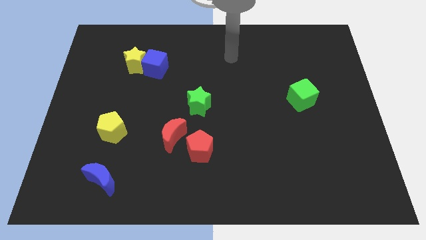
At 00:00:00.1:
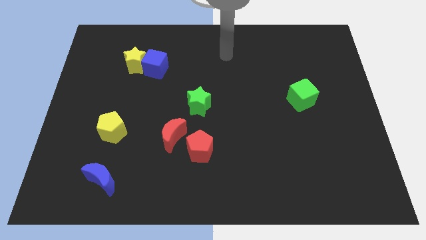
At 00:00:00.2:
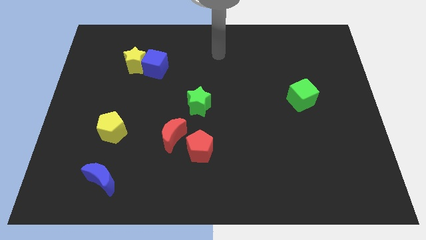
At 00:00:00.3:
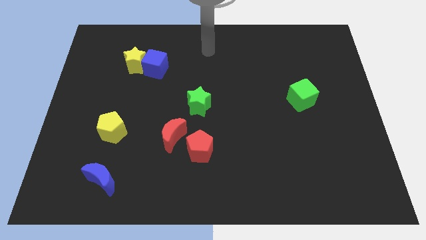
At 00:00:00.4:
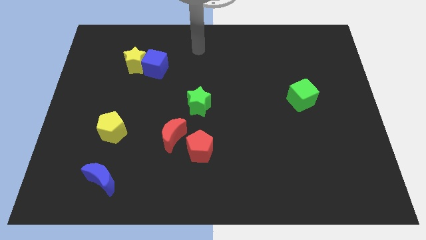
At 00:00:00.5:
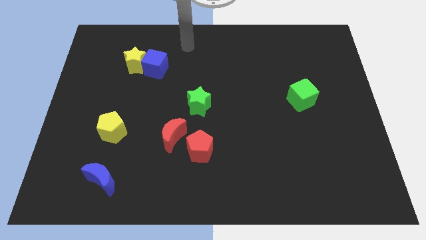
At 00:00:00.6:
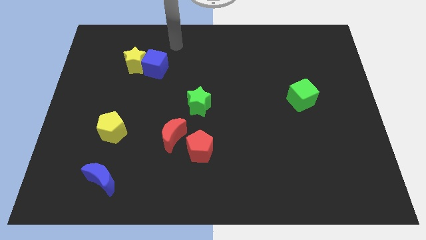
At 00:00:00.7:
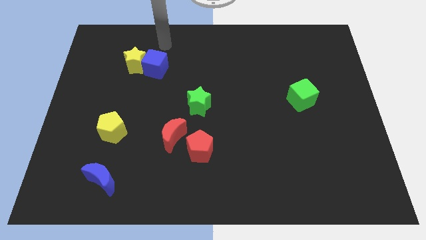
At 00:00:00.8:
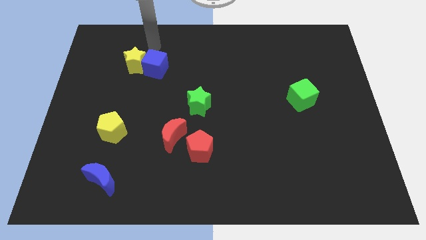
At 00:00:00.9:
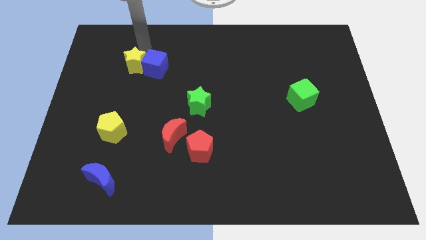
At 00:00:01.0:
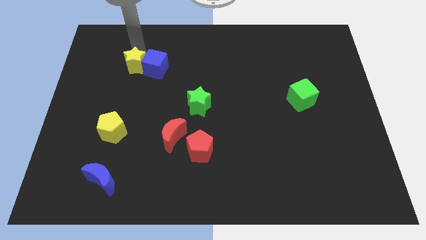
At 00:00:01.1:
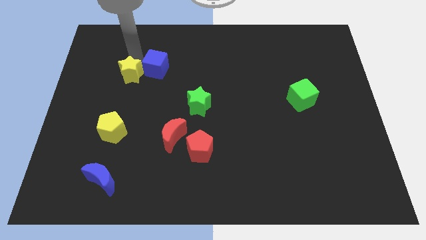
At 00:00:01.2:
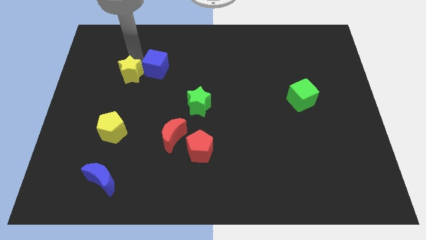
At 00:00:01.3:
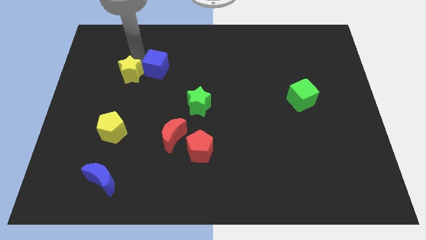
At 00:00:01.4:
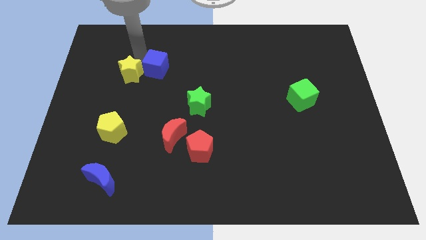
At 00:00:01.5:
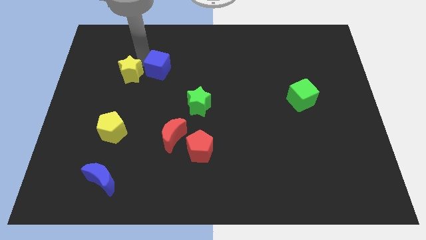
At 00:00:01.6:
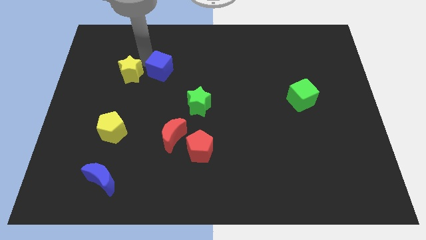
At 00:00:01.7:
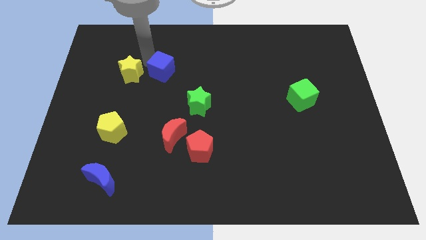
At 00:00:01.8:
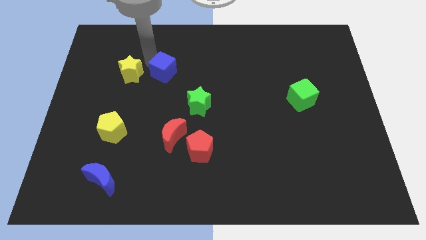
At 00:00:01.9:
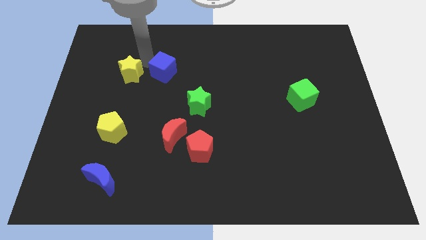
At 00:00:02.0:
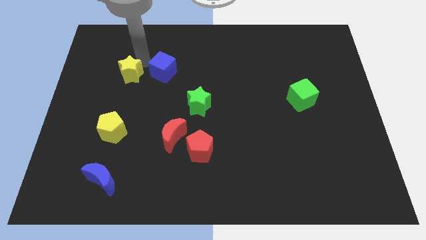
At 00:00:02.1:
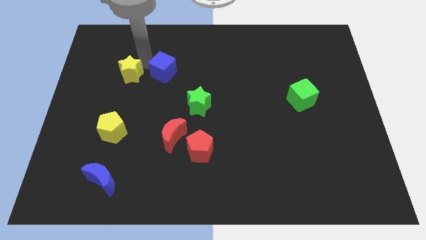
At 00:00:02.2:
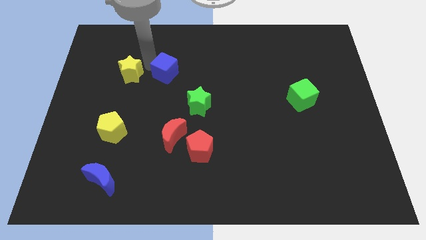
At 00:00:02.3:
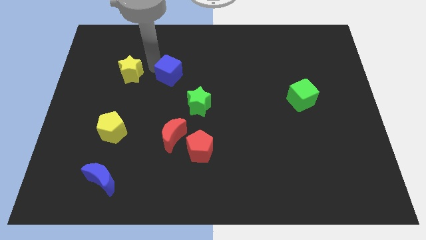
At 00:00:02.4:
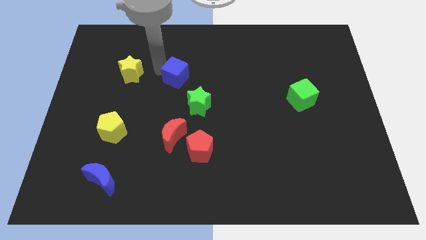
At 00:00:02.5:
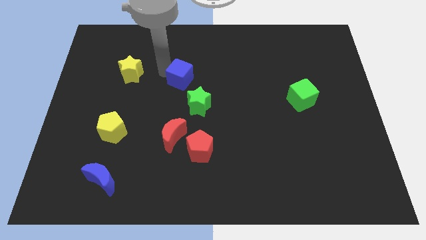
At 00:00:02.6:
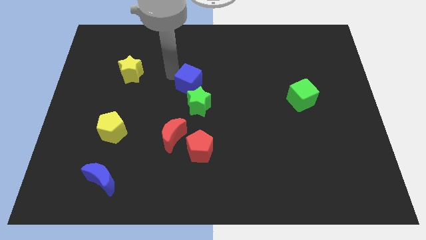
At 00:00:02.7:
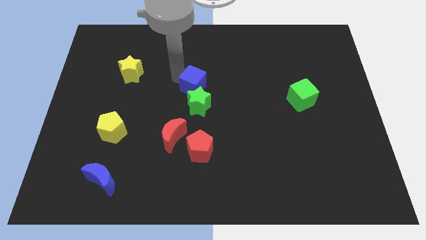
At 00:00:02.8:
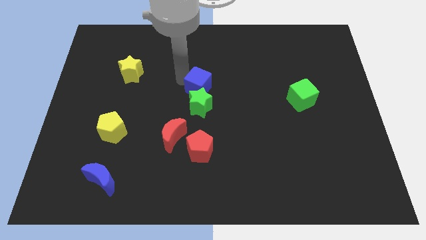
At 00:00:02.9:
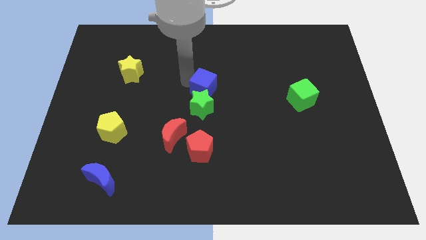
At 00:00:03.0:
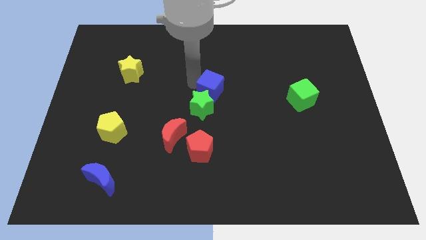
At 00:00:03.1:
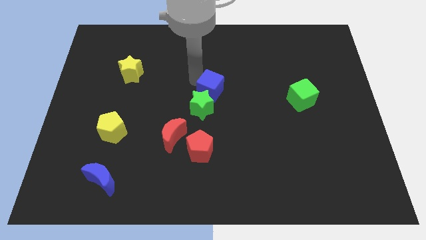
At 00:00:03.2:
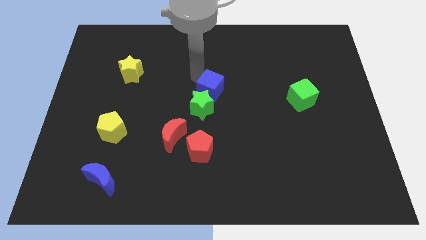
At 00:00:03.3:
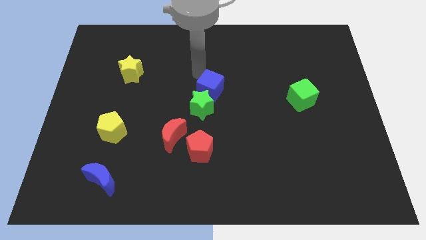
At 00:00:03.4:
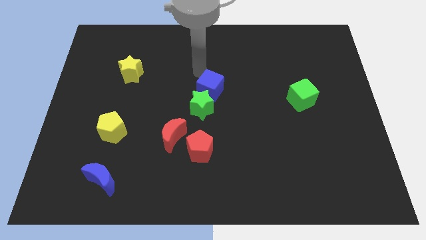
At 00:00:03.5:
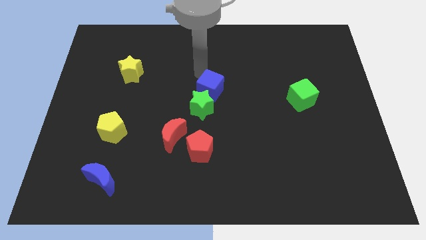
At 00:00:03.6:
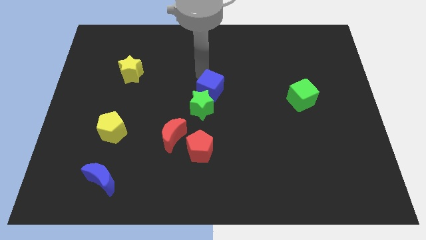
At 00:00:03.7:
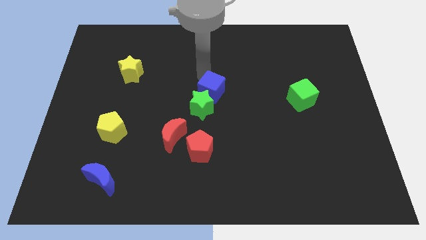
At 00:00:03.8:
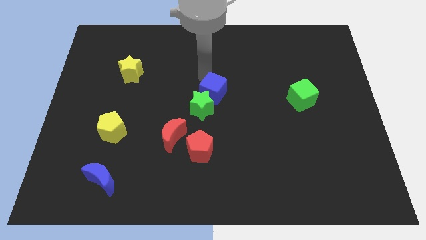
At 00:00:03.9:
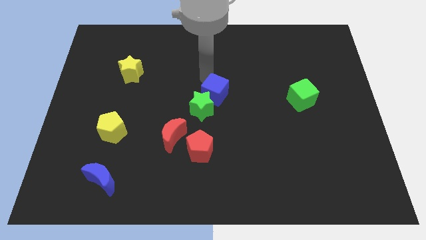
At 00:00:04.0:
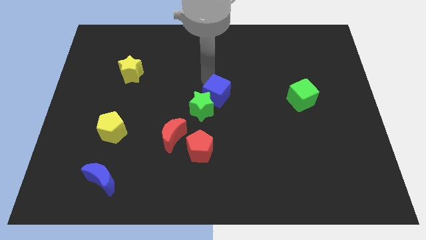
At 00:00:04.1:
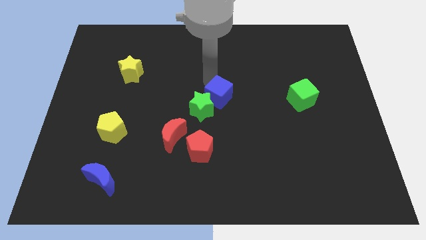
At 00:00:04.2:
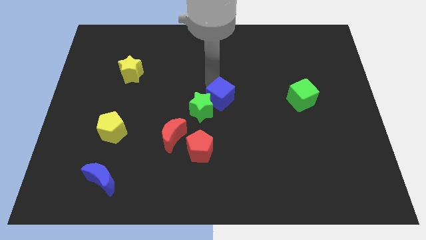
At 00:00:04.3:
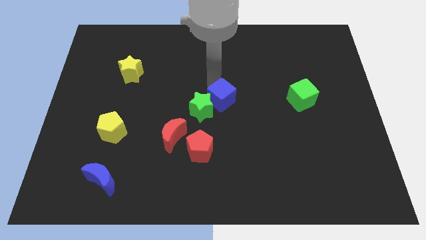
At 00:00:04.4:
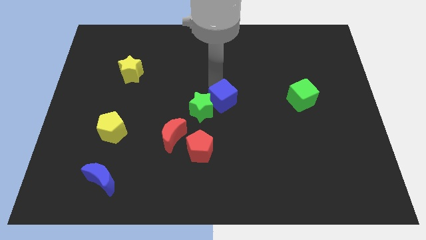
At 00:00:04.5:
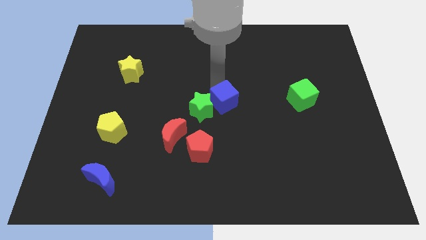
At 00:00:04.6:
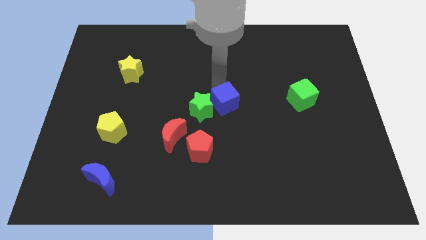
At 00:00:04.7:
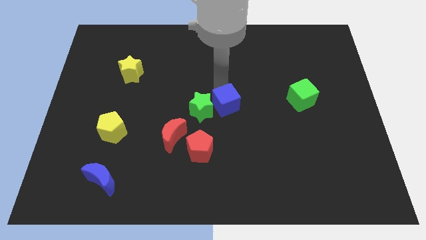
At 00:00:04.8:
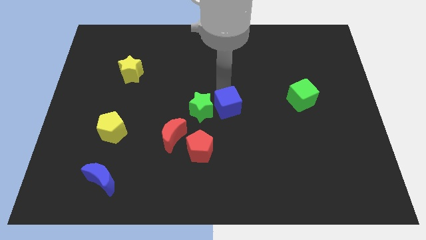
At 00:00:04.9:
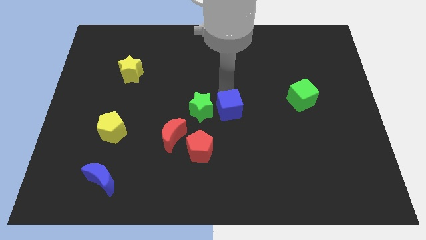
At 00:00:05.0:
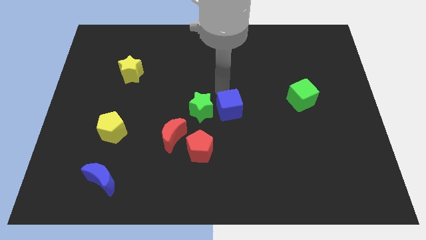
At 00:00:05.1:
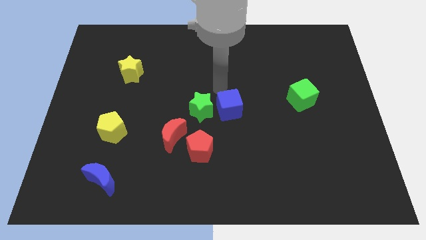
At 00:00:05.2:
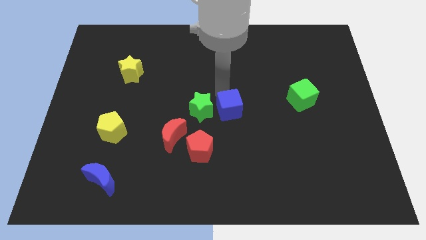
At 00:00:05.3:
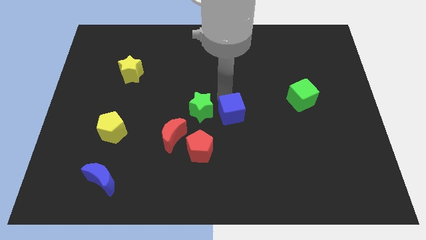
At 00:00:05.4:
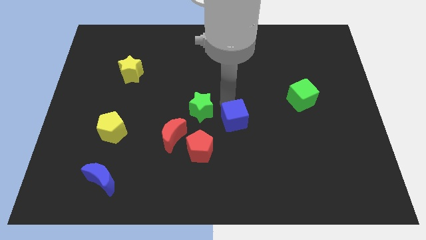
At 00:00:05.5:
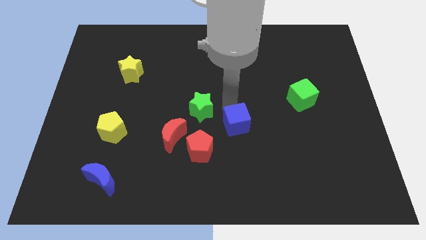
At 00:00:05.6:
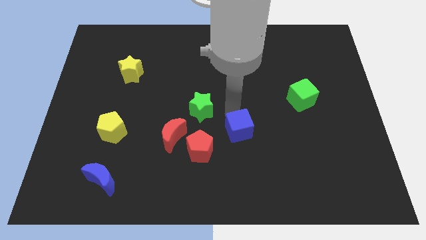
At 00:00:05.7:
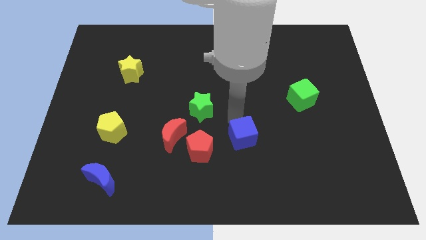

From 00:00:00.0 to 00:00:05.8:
push the blue cube right of the red pentagon
